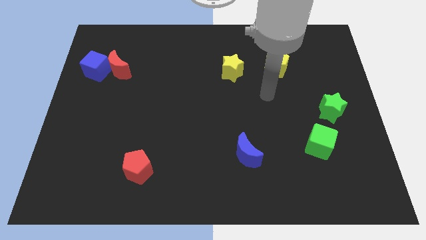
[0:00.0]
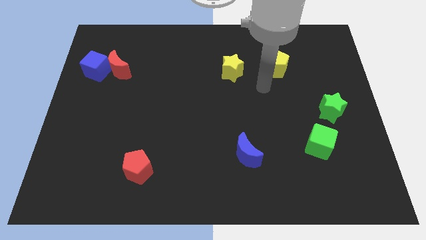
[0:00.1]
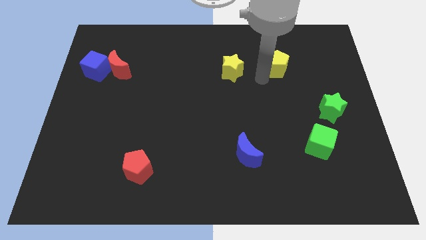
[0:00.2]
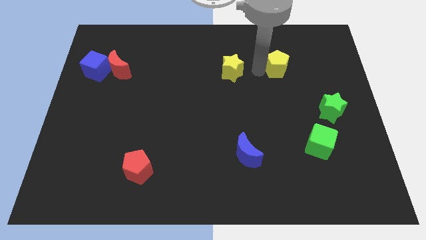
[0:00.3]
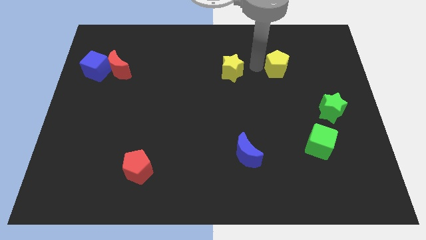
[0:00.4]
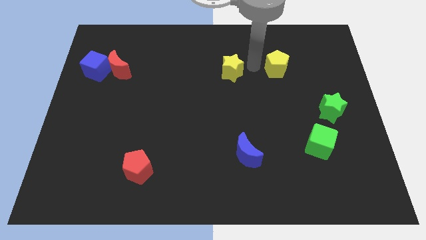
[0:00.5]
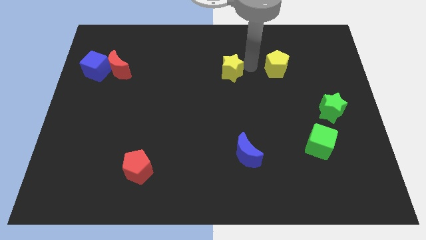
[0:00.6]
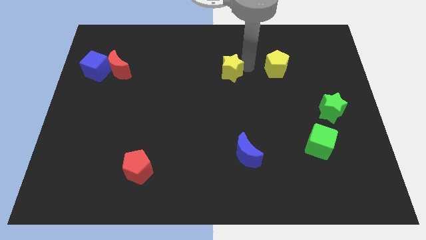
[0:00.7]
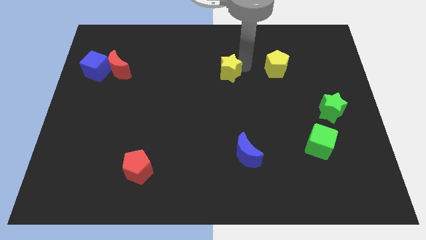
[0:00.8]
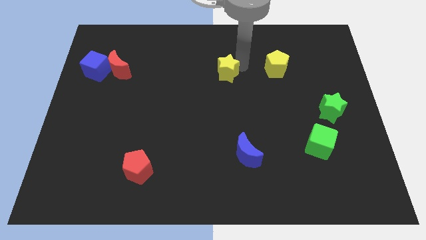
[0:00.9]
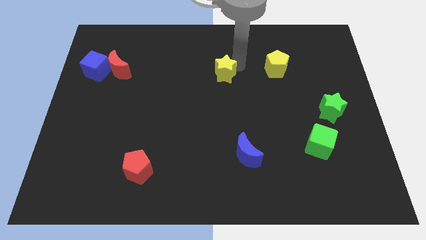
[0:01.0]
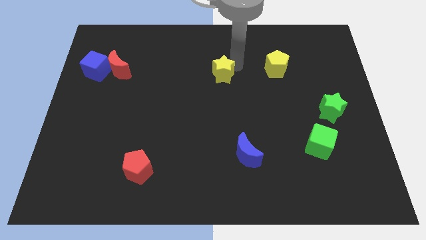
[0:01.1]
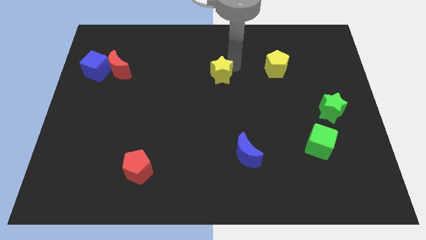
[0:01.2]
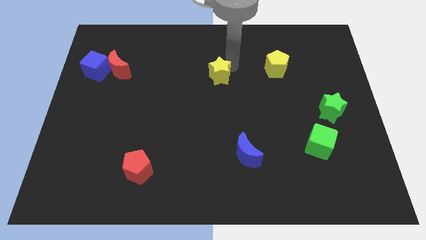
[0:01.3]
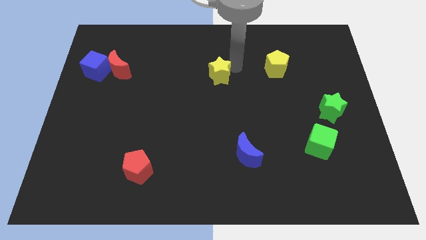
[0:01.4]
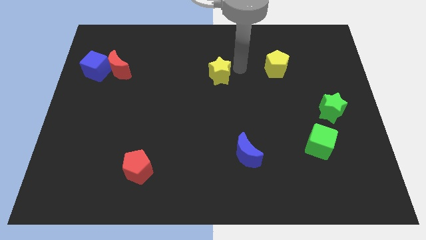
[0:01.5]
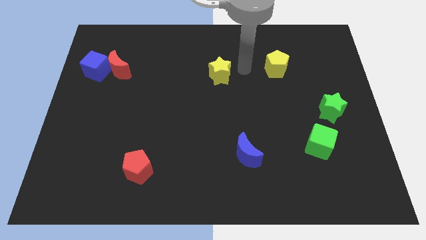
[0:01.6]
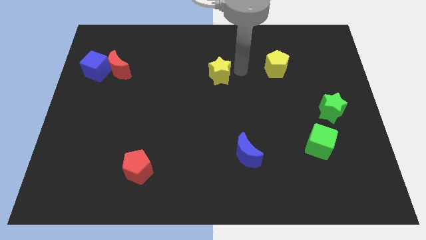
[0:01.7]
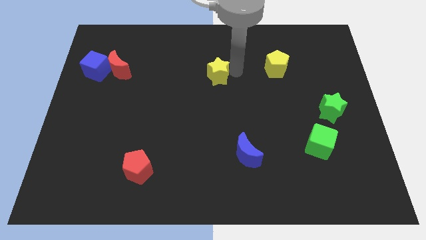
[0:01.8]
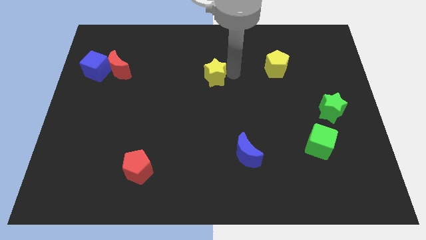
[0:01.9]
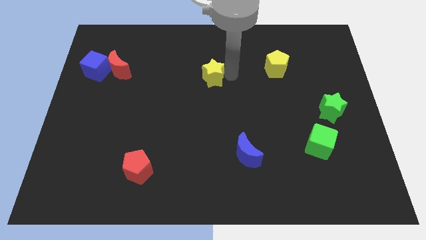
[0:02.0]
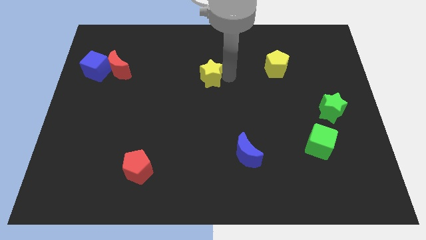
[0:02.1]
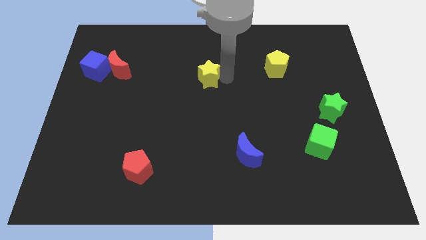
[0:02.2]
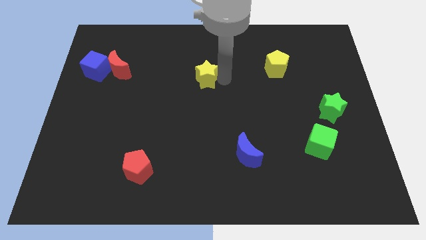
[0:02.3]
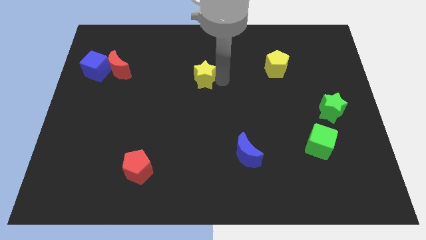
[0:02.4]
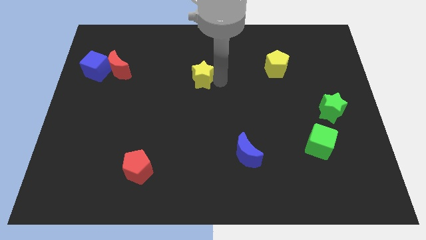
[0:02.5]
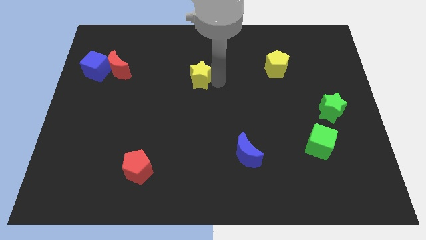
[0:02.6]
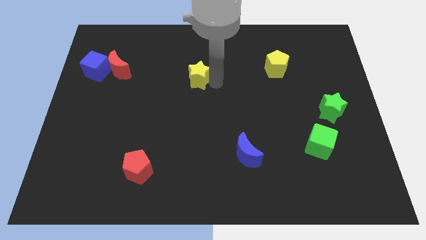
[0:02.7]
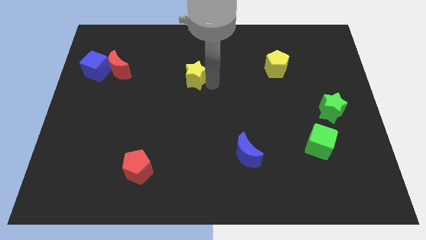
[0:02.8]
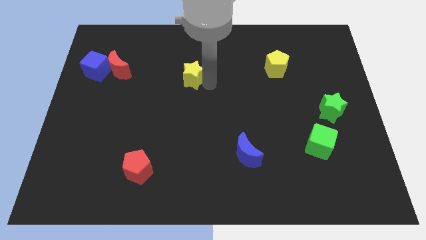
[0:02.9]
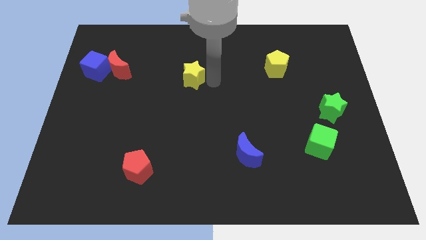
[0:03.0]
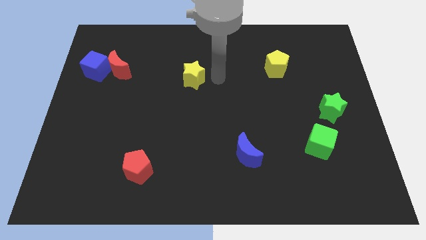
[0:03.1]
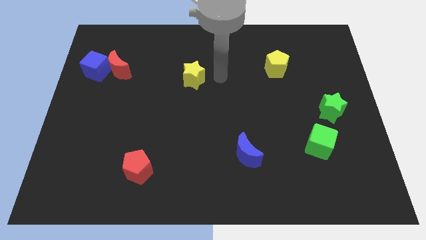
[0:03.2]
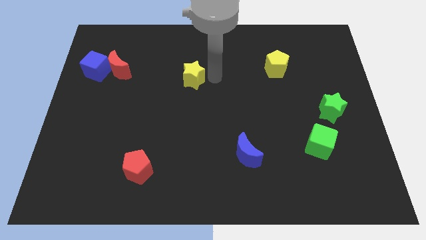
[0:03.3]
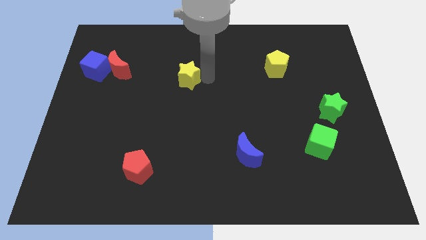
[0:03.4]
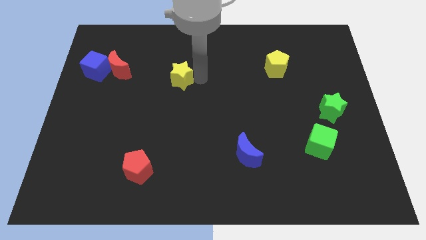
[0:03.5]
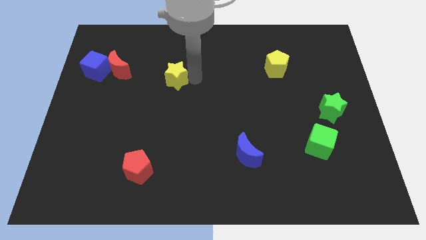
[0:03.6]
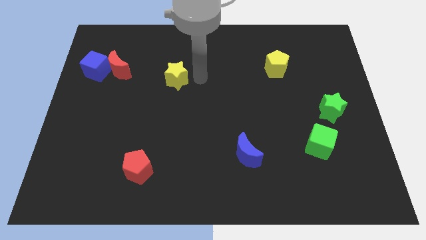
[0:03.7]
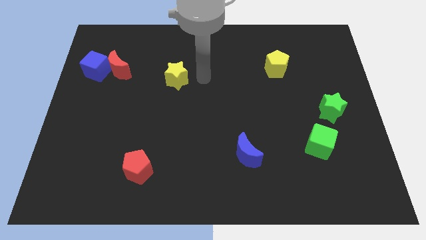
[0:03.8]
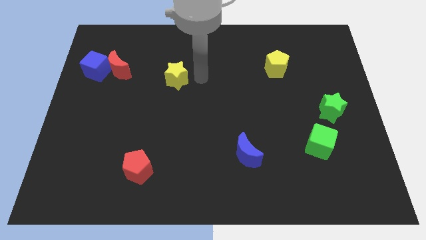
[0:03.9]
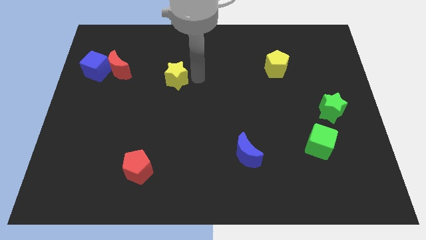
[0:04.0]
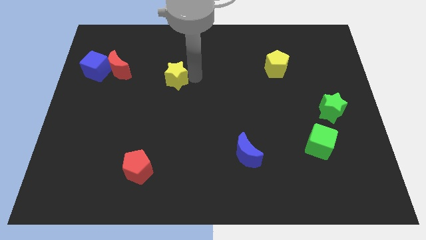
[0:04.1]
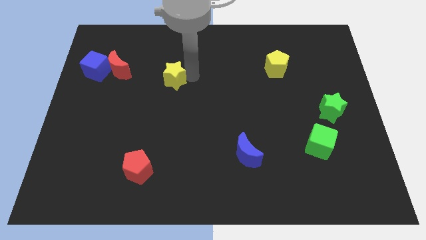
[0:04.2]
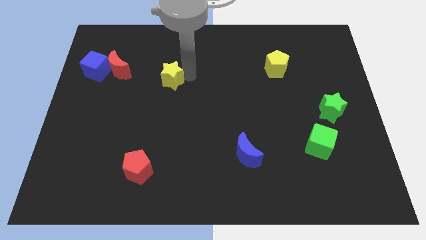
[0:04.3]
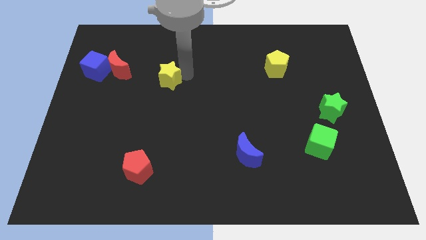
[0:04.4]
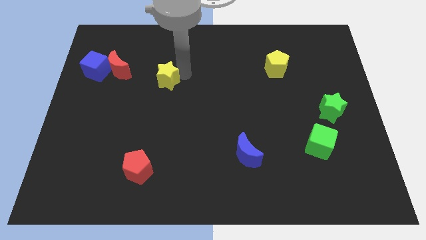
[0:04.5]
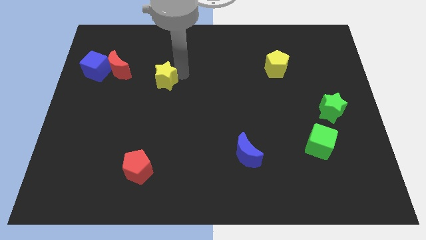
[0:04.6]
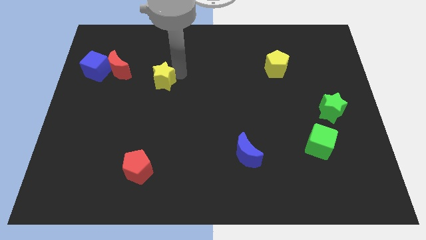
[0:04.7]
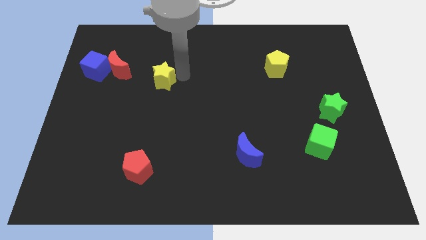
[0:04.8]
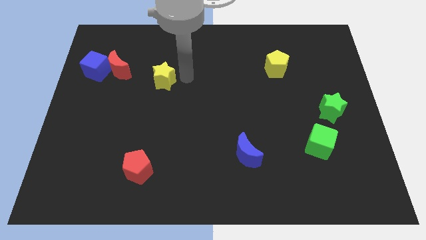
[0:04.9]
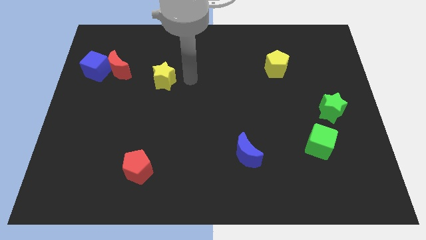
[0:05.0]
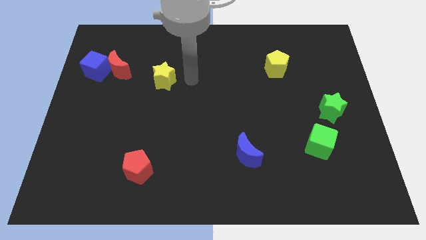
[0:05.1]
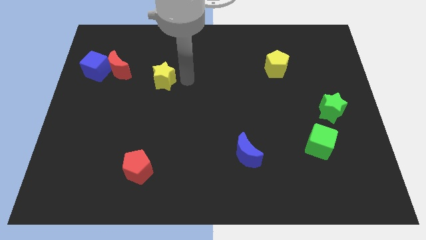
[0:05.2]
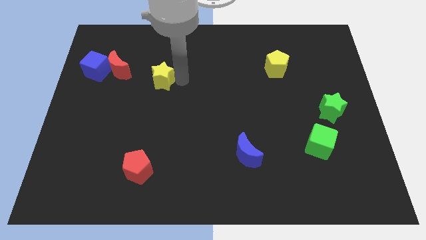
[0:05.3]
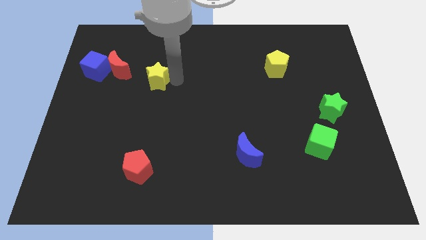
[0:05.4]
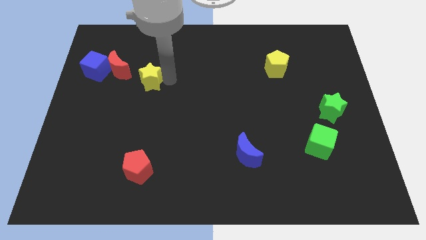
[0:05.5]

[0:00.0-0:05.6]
push the yellow star diagonally down and to the right of the red moon

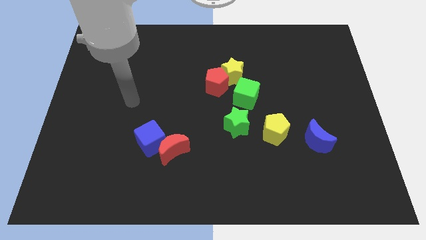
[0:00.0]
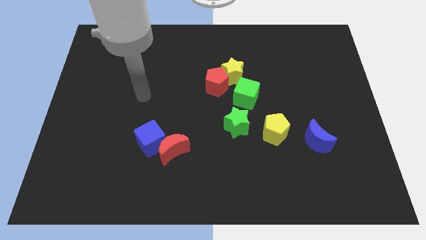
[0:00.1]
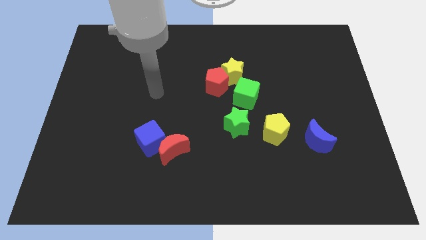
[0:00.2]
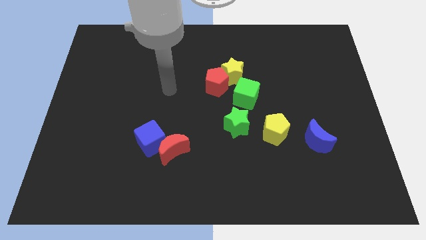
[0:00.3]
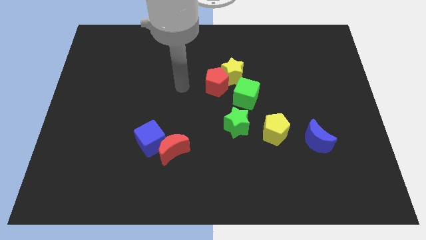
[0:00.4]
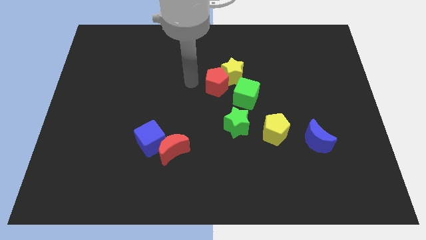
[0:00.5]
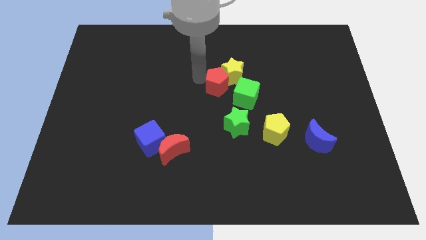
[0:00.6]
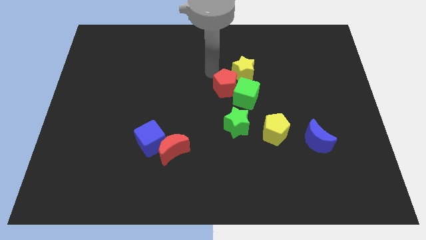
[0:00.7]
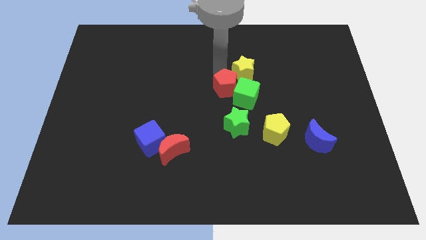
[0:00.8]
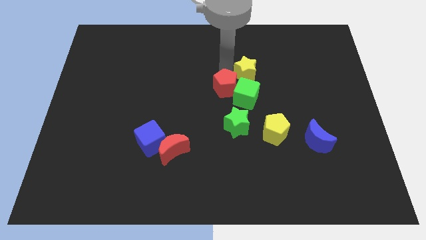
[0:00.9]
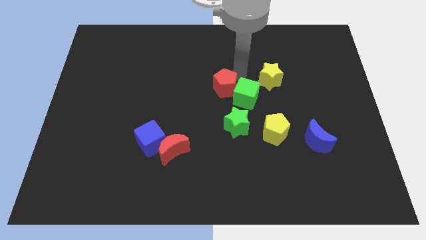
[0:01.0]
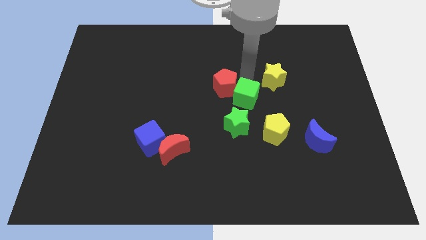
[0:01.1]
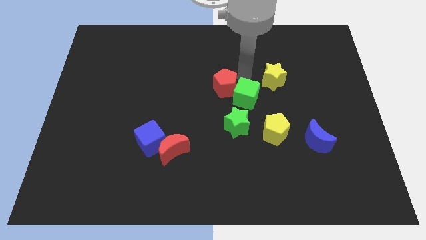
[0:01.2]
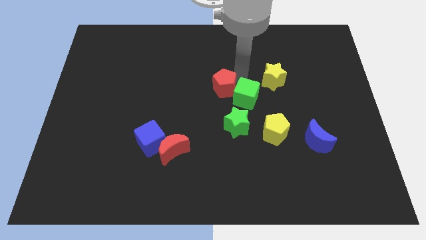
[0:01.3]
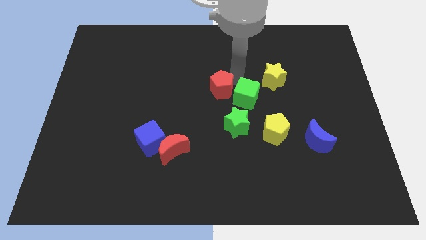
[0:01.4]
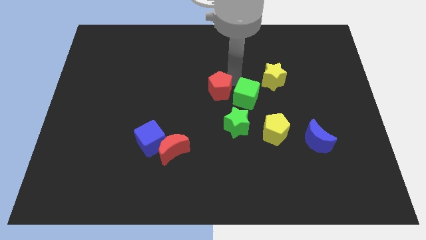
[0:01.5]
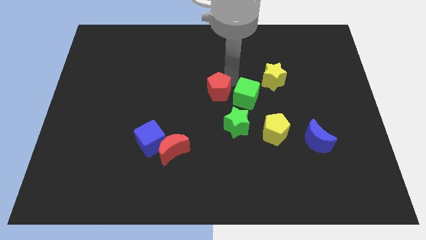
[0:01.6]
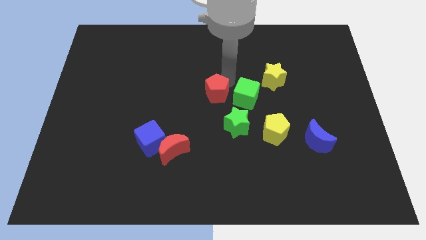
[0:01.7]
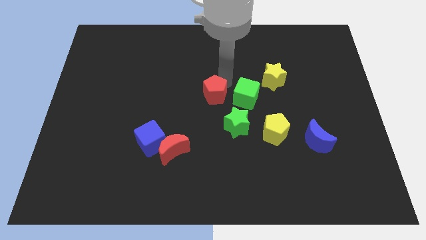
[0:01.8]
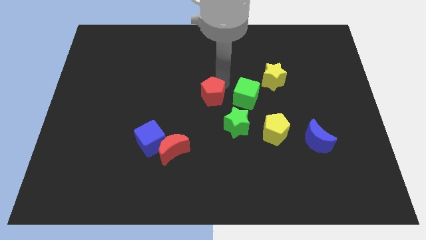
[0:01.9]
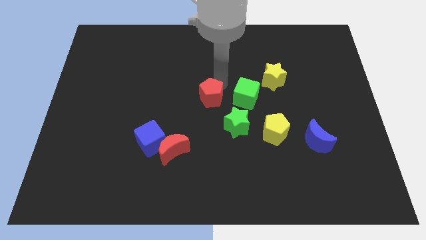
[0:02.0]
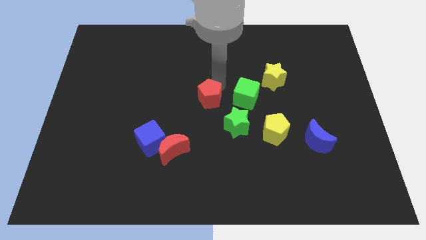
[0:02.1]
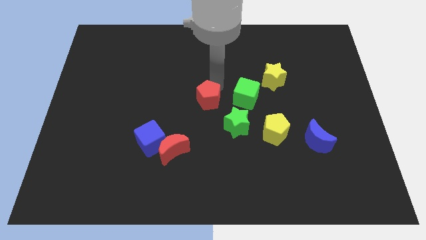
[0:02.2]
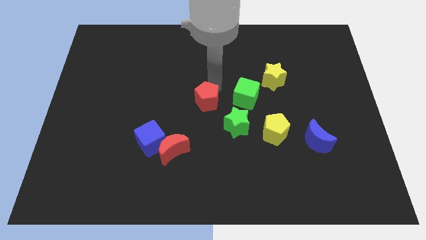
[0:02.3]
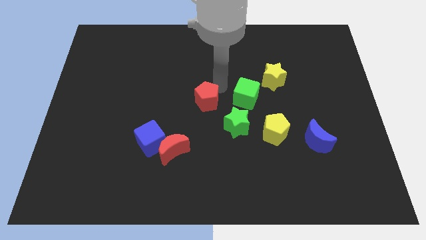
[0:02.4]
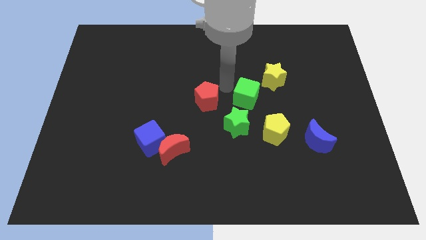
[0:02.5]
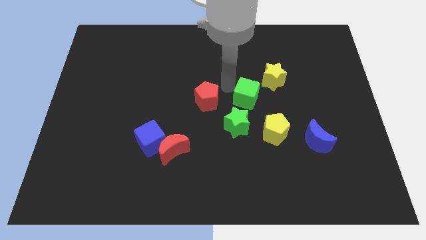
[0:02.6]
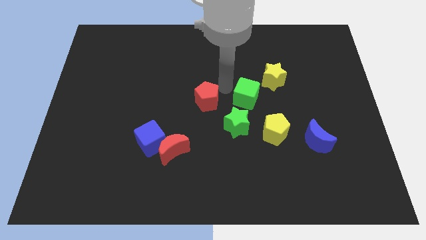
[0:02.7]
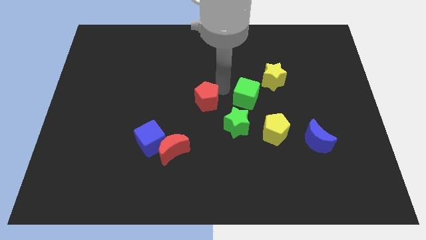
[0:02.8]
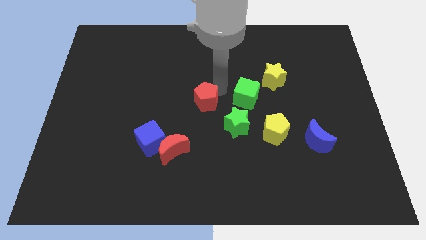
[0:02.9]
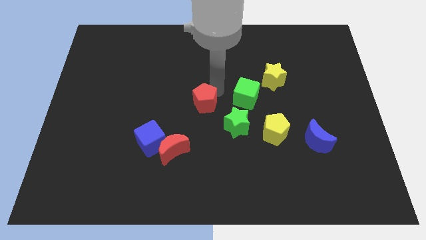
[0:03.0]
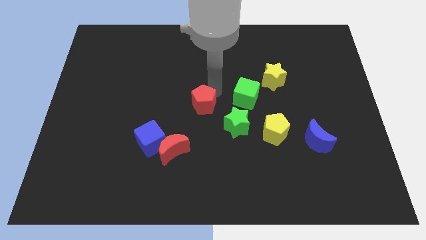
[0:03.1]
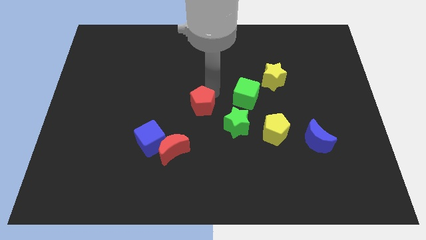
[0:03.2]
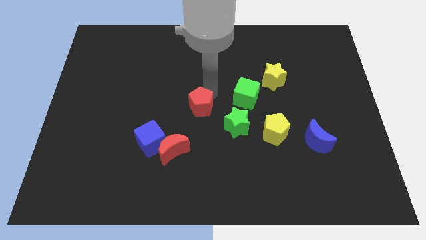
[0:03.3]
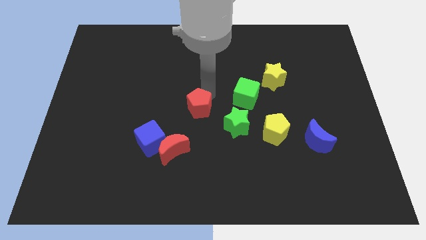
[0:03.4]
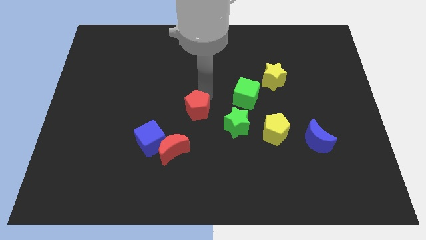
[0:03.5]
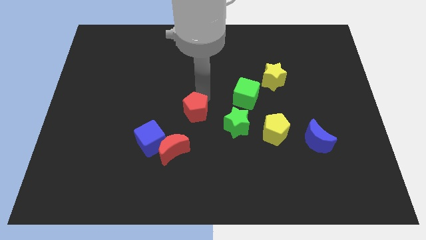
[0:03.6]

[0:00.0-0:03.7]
move the red pentagon to the top right of the blue cube
